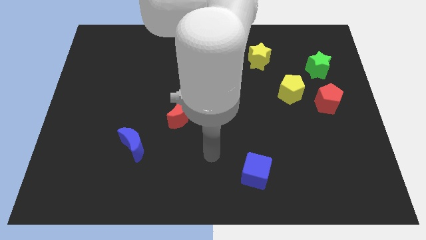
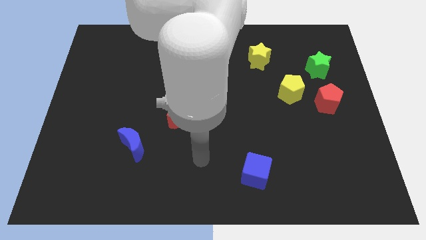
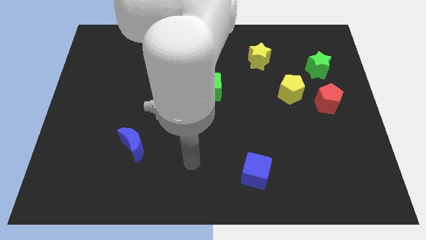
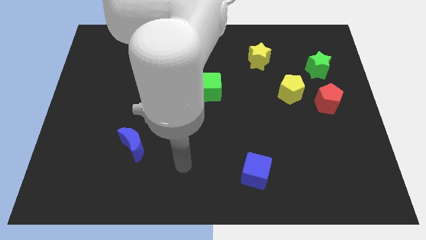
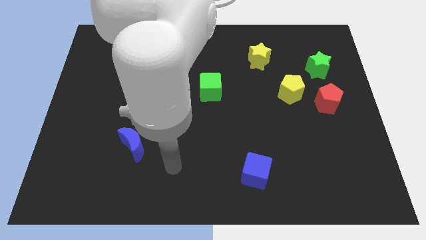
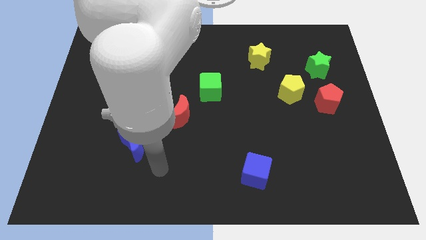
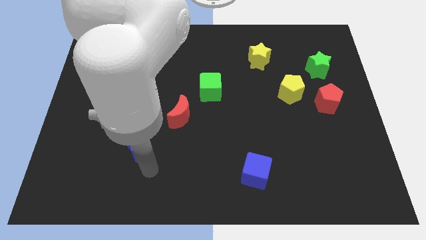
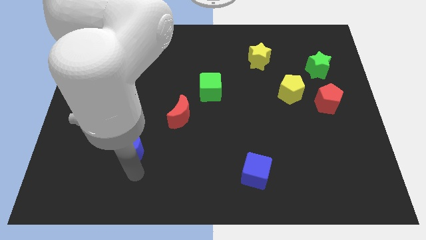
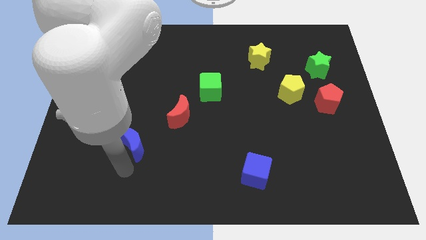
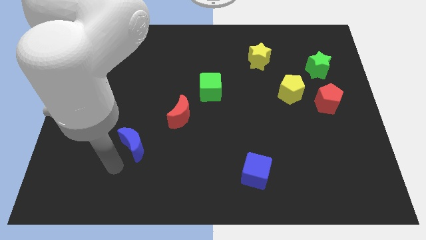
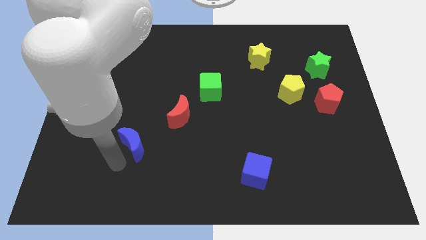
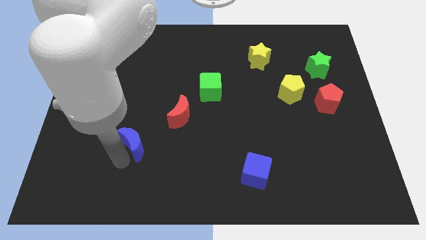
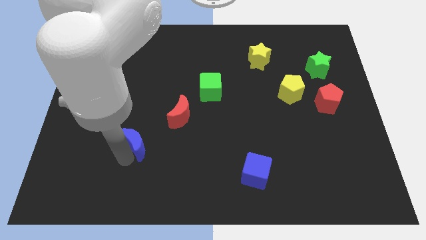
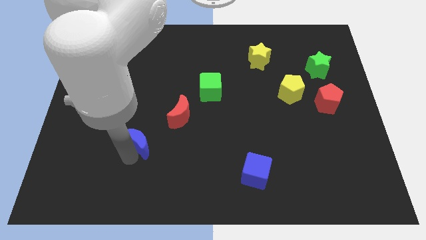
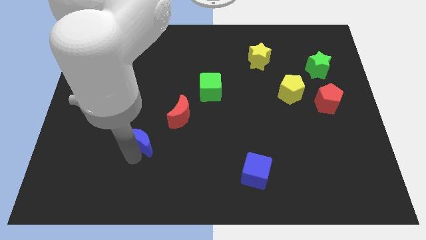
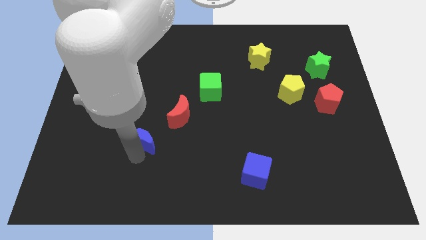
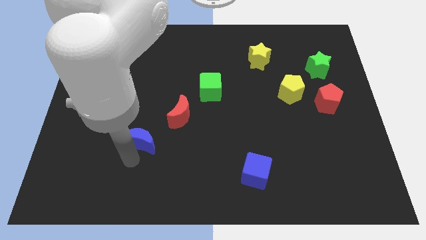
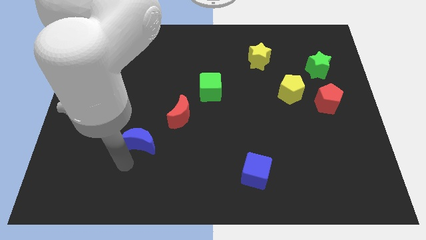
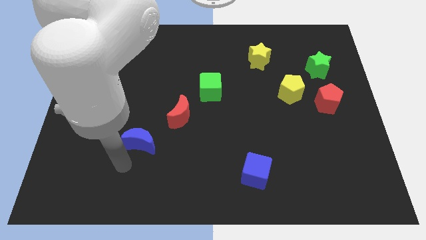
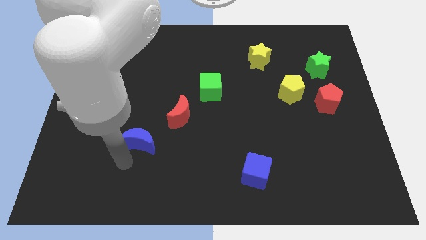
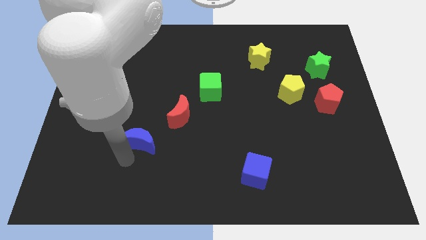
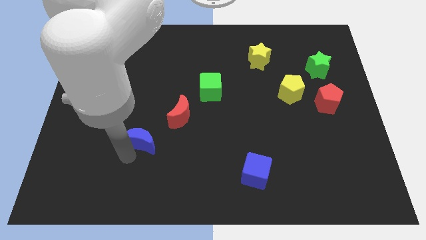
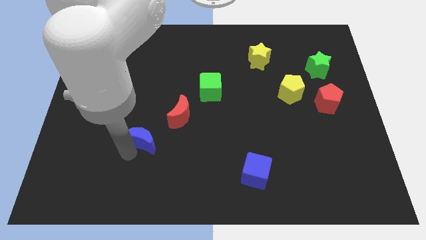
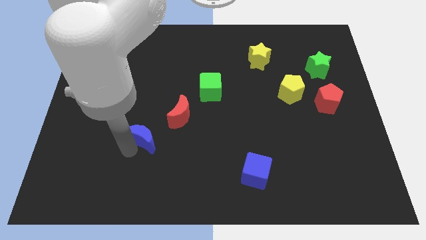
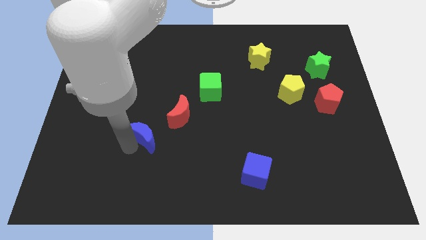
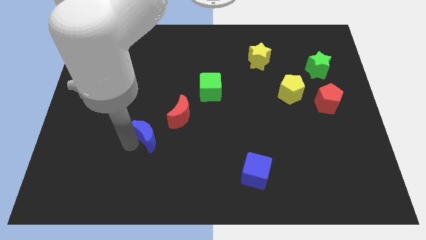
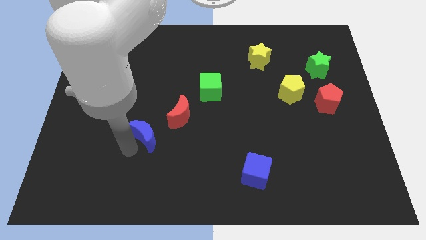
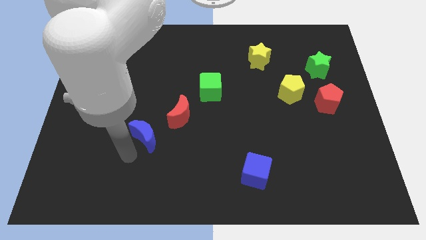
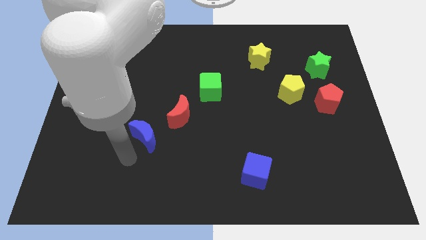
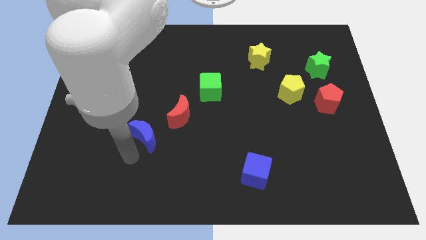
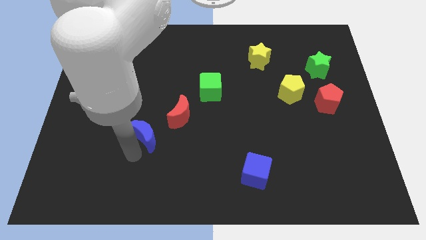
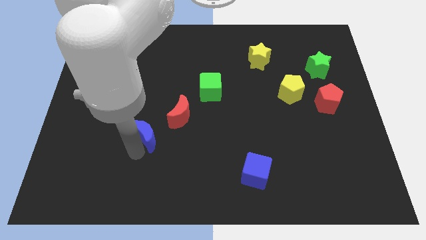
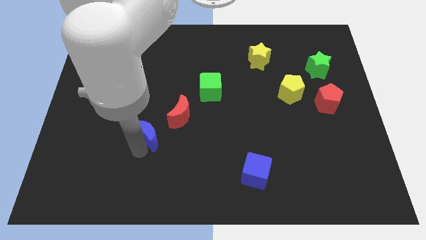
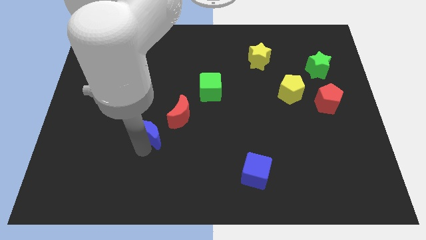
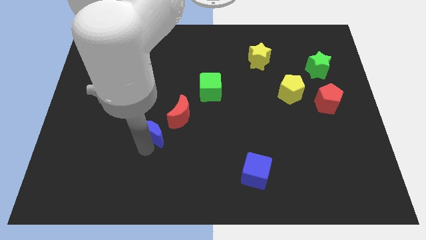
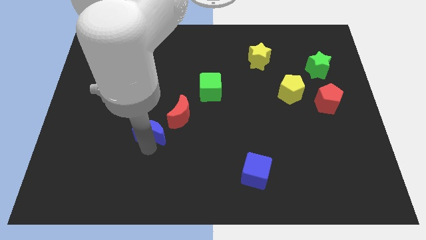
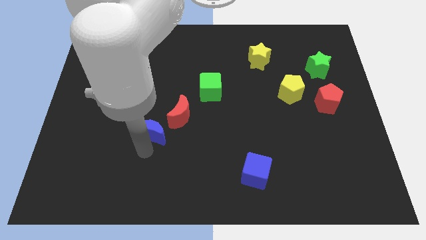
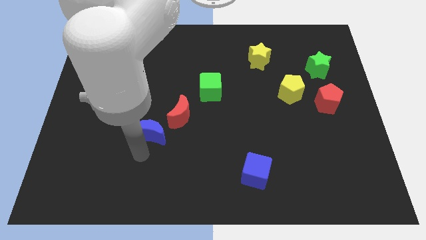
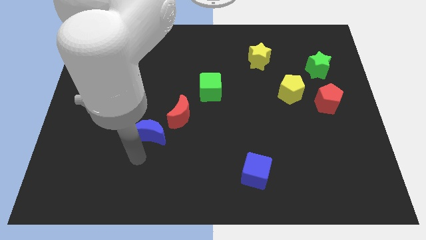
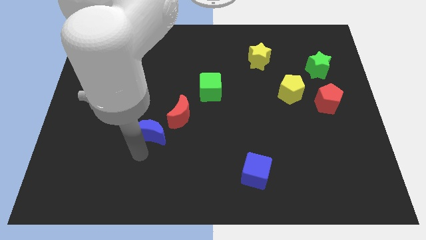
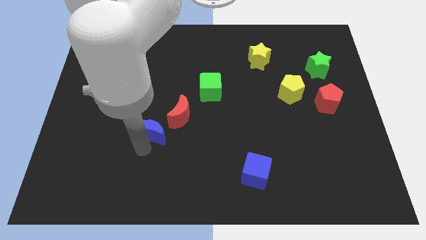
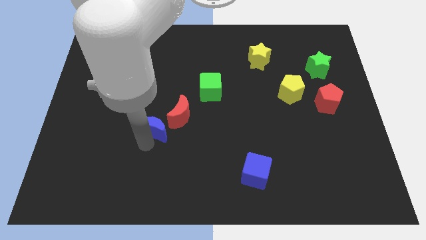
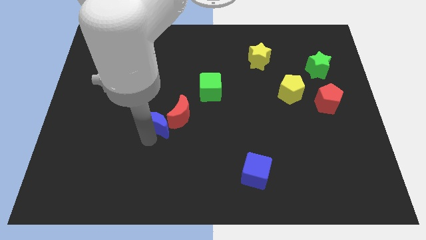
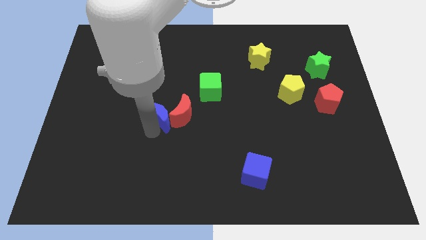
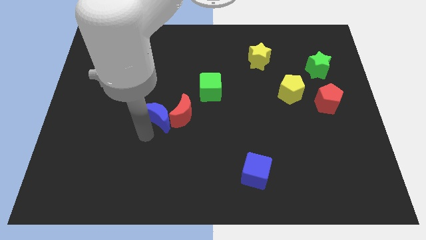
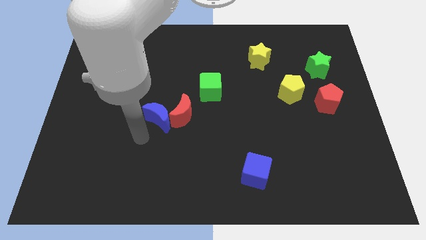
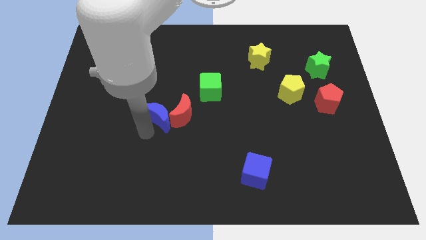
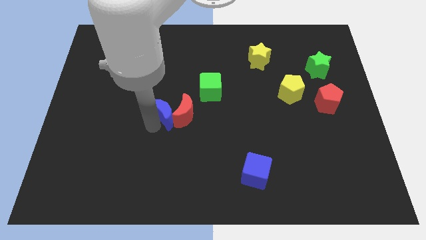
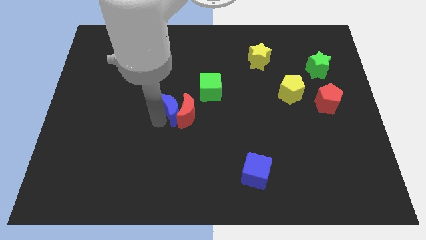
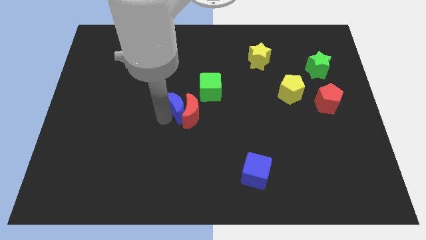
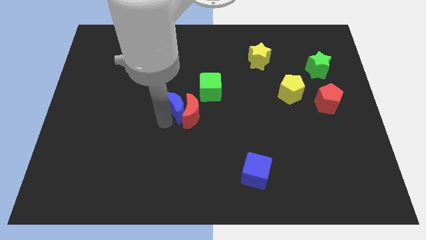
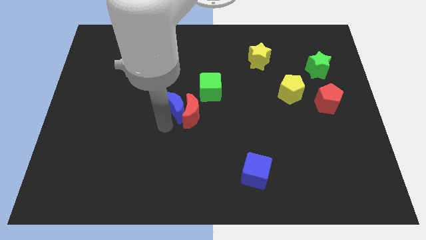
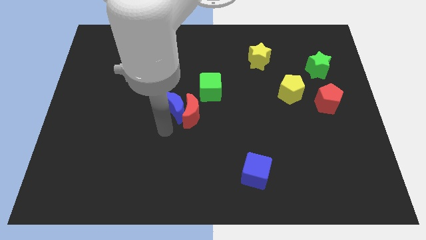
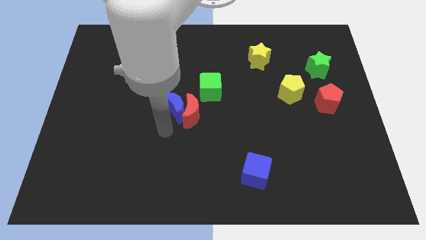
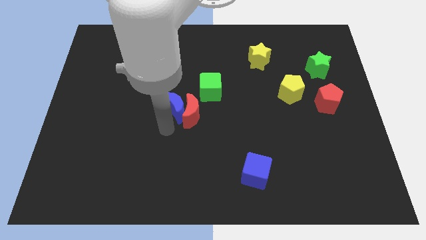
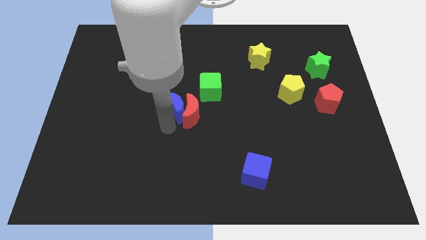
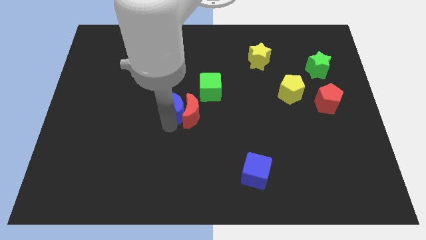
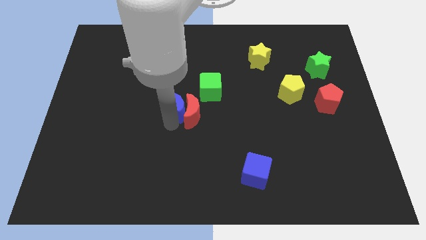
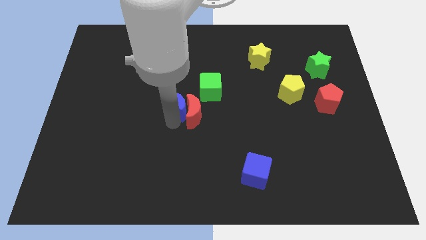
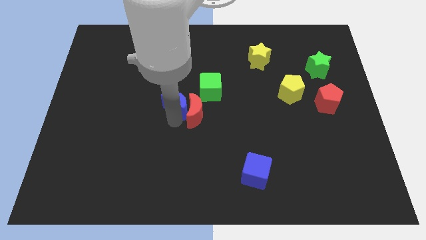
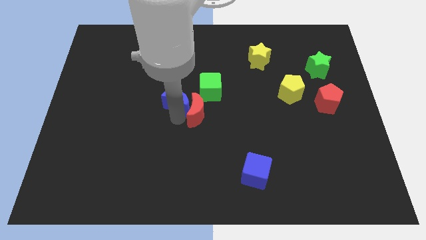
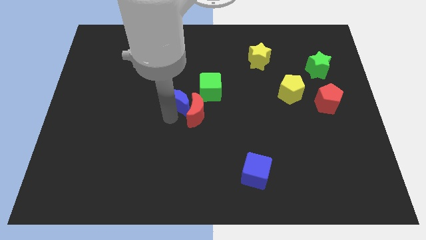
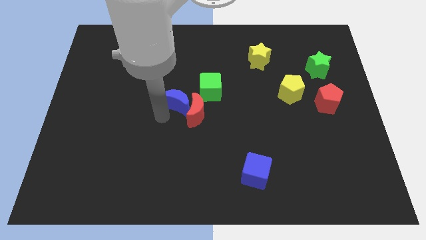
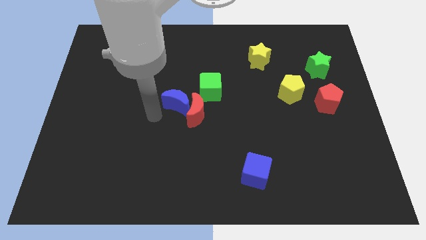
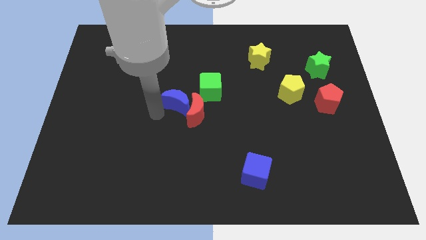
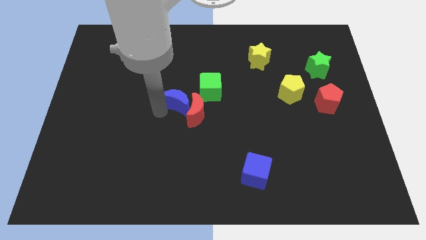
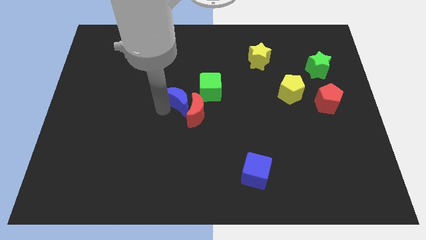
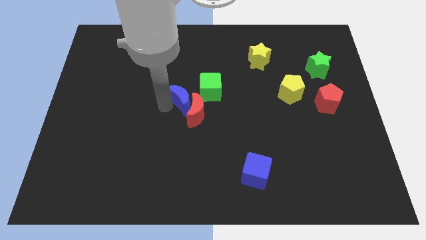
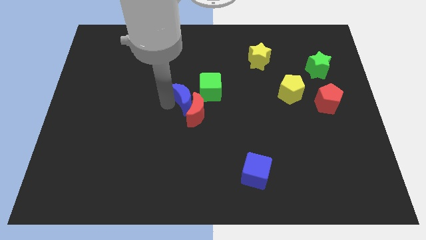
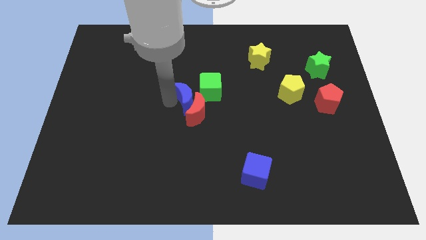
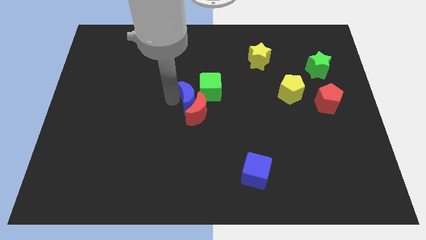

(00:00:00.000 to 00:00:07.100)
push the blue moon to the green cube
